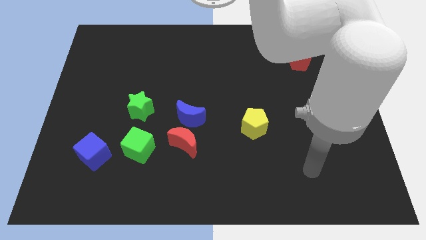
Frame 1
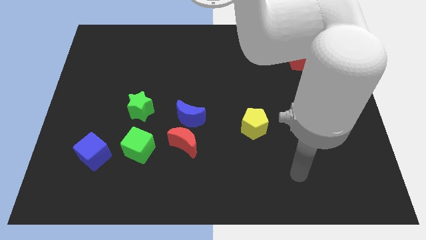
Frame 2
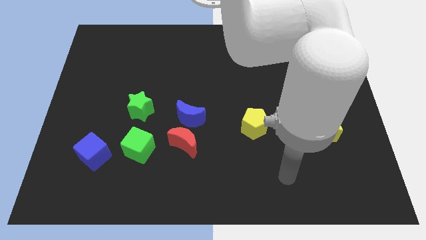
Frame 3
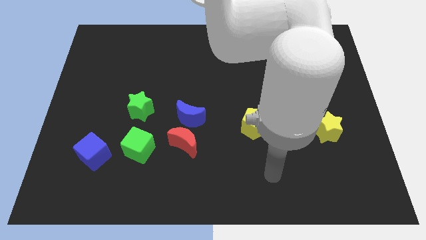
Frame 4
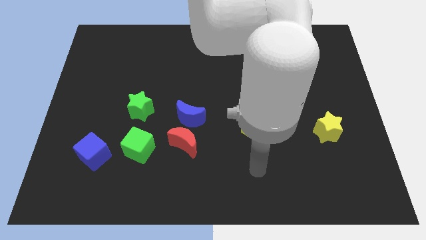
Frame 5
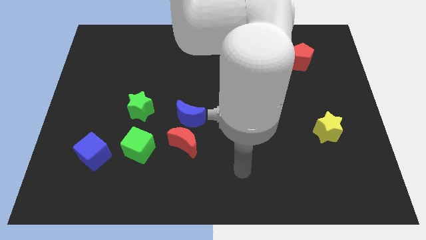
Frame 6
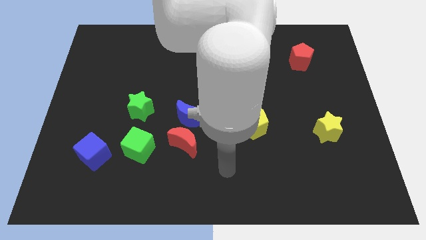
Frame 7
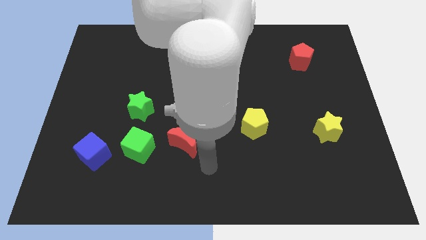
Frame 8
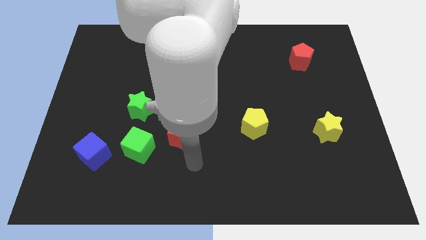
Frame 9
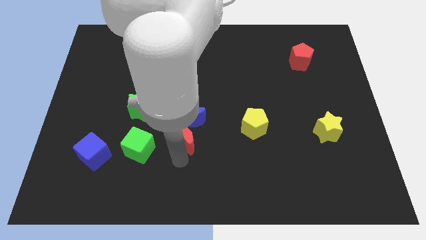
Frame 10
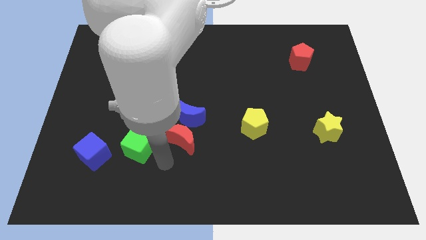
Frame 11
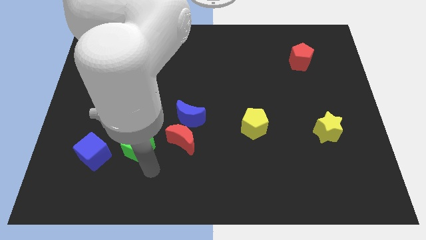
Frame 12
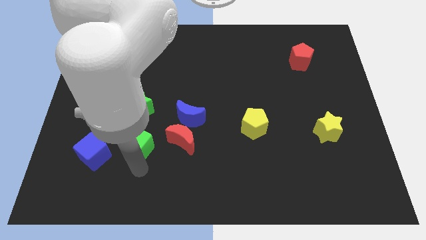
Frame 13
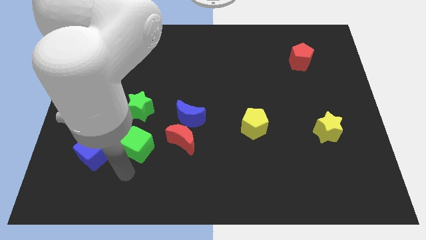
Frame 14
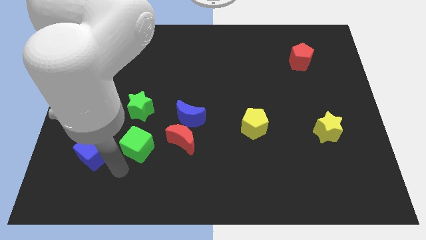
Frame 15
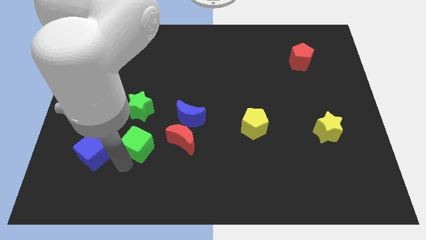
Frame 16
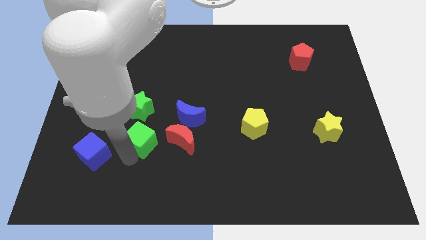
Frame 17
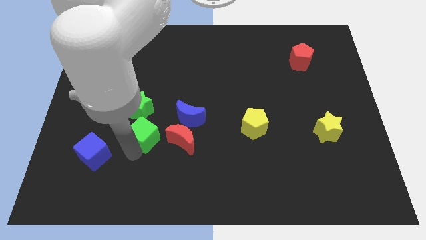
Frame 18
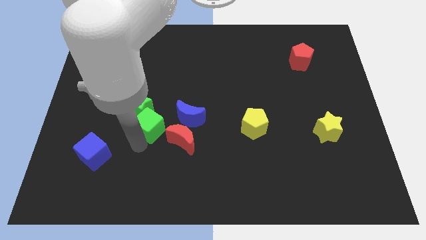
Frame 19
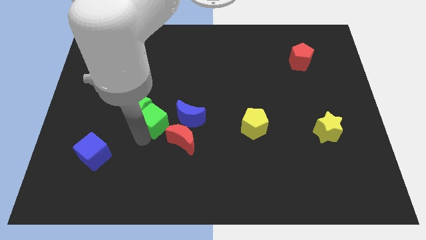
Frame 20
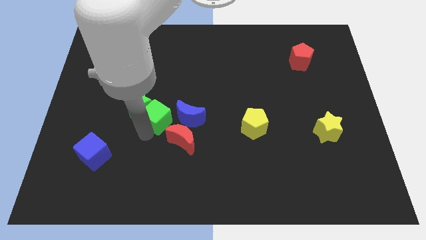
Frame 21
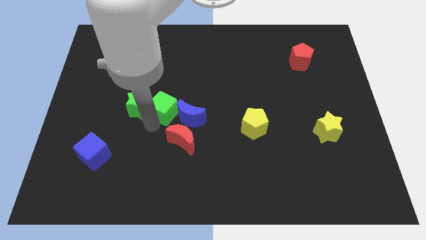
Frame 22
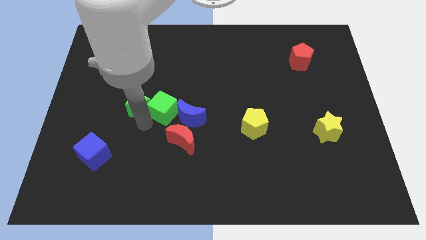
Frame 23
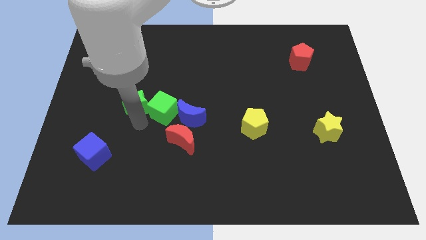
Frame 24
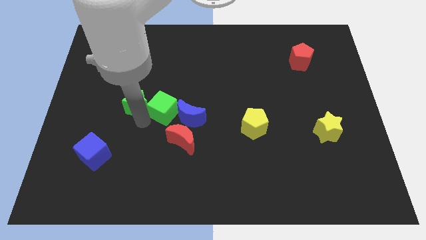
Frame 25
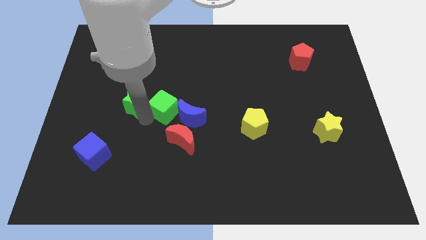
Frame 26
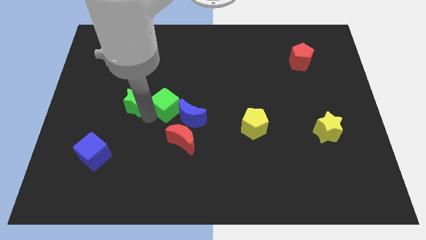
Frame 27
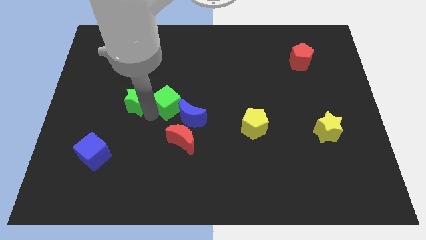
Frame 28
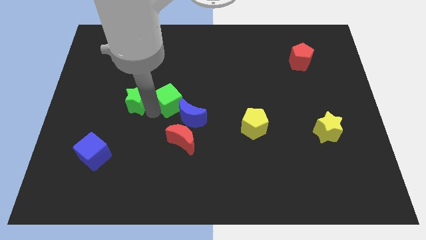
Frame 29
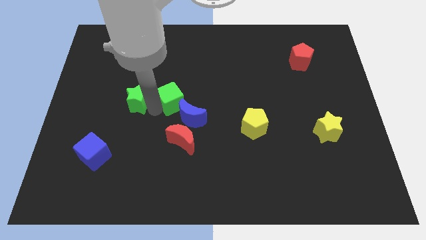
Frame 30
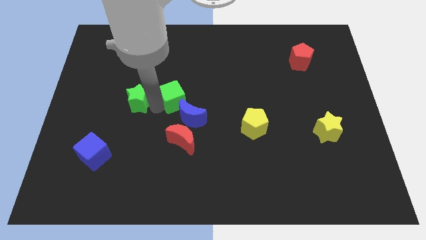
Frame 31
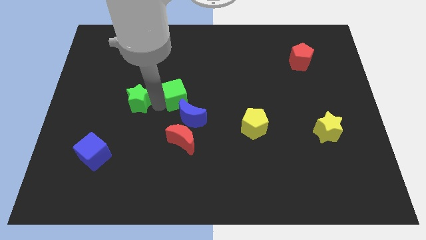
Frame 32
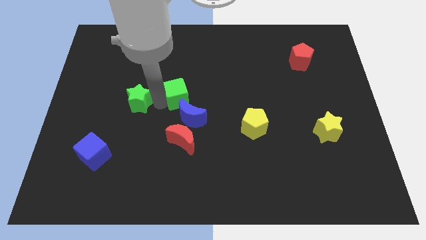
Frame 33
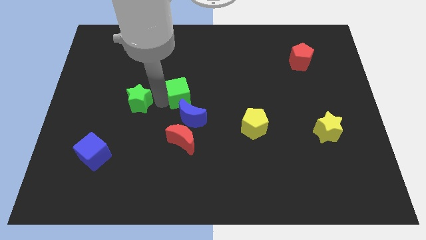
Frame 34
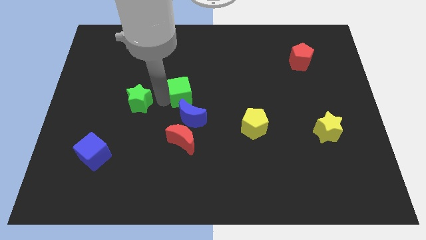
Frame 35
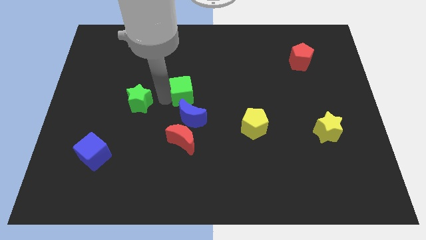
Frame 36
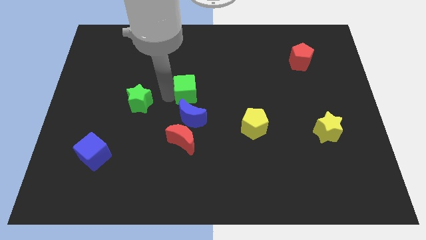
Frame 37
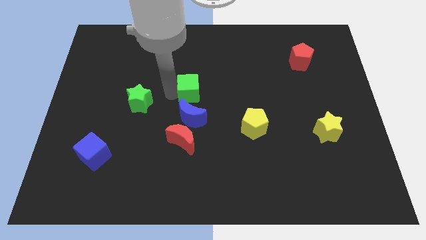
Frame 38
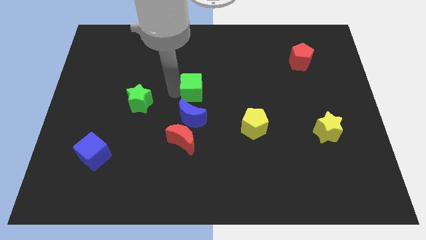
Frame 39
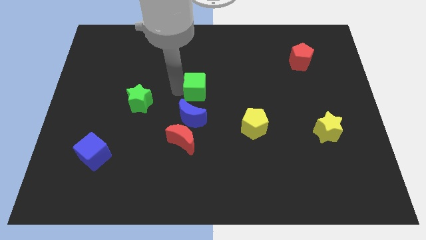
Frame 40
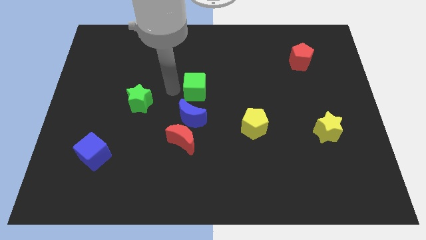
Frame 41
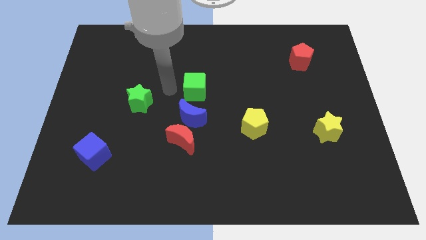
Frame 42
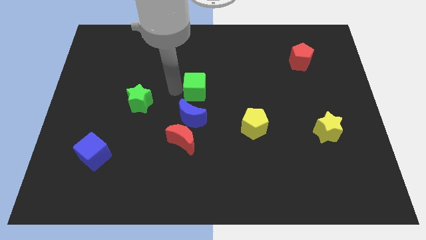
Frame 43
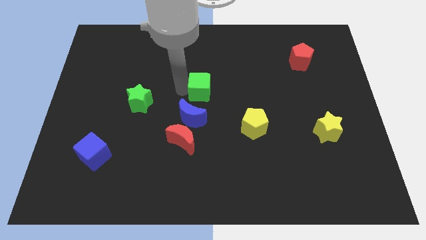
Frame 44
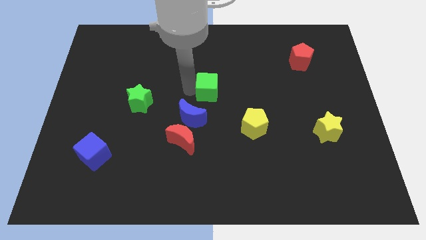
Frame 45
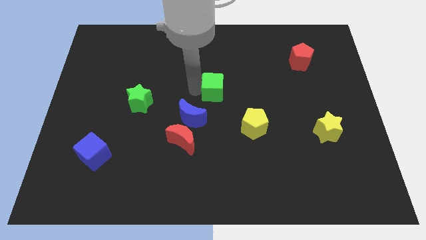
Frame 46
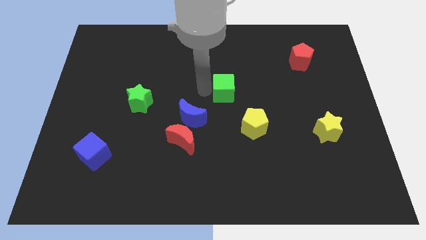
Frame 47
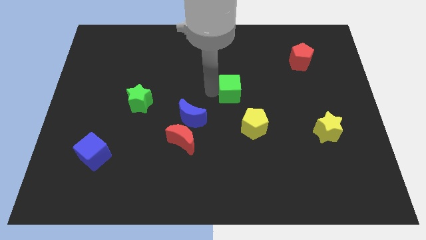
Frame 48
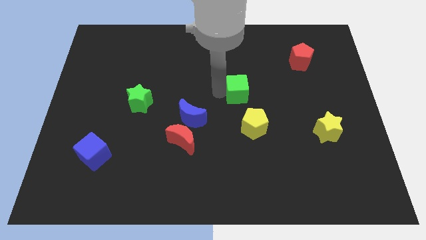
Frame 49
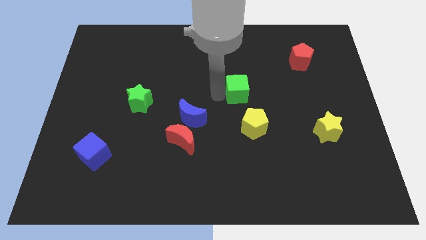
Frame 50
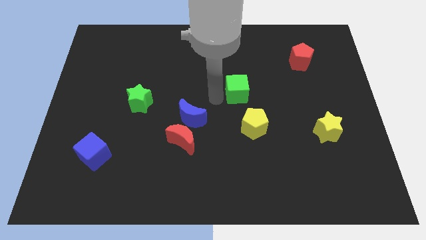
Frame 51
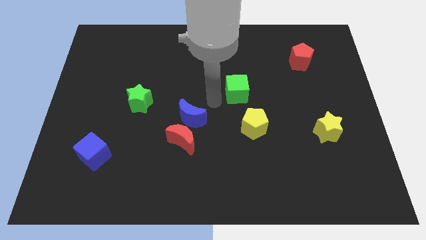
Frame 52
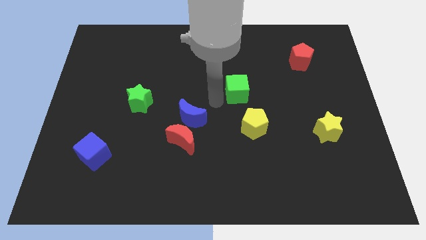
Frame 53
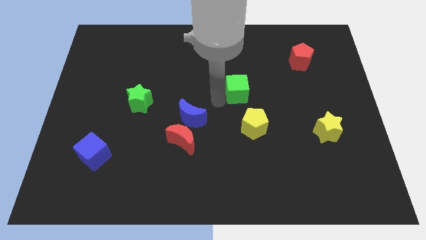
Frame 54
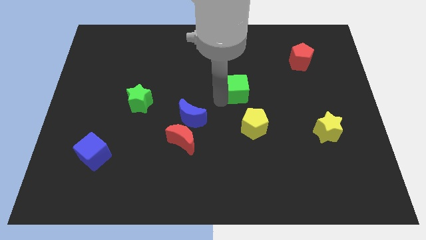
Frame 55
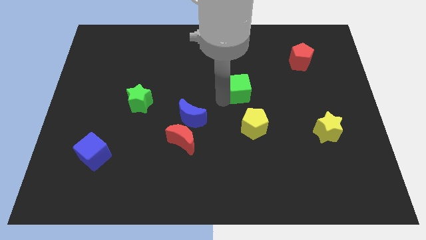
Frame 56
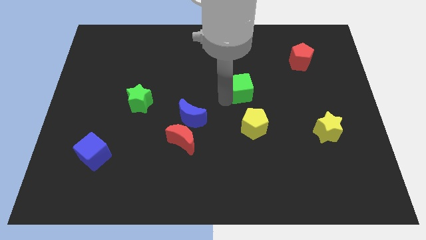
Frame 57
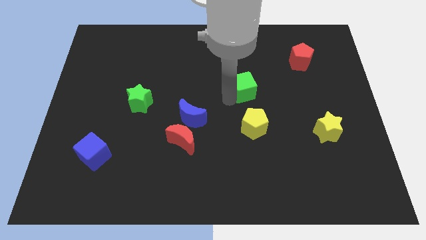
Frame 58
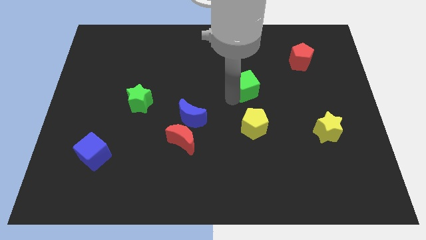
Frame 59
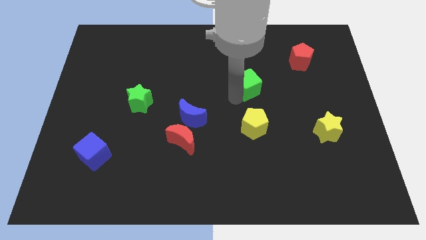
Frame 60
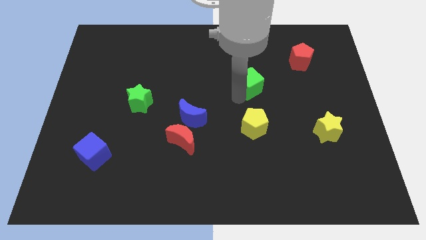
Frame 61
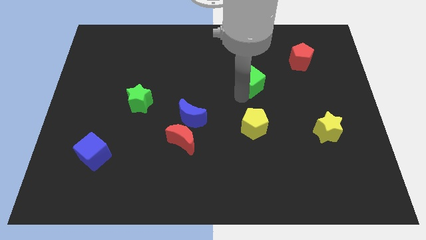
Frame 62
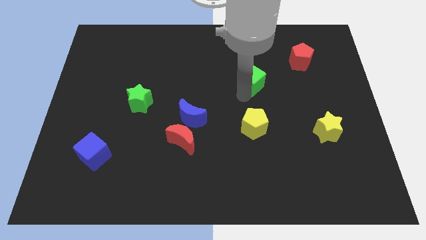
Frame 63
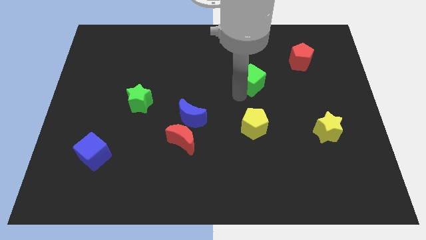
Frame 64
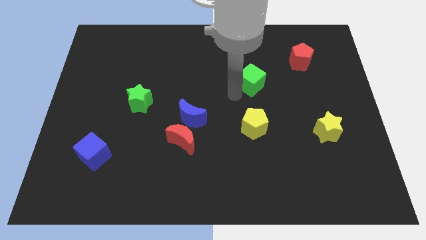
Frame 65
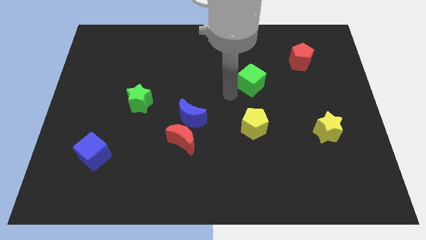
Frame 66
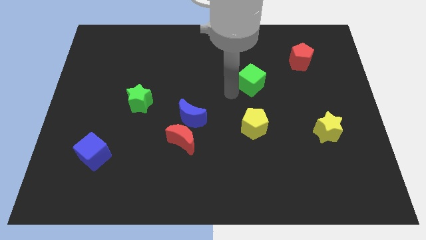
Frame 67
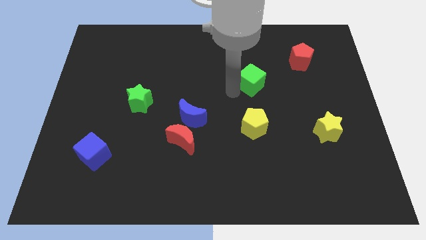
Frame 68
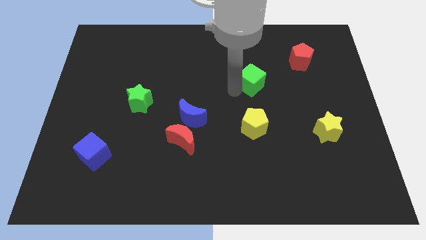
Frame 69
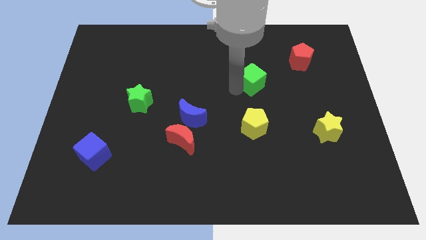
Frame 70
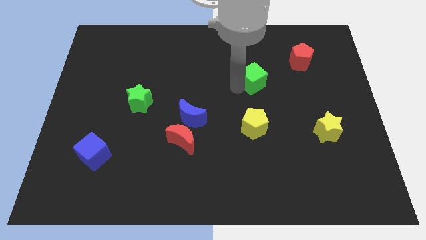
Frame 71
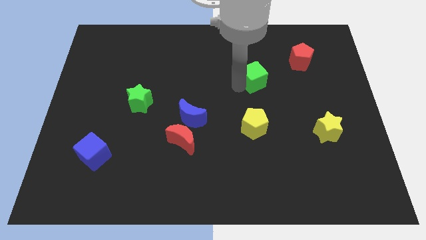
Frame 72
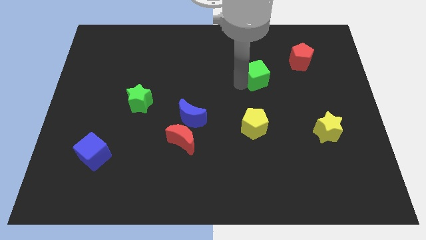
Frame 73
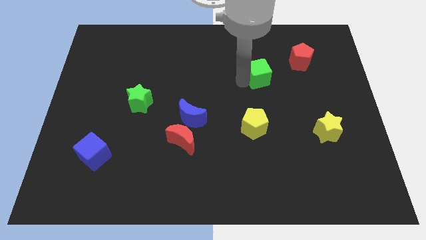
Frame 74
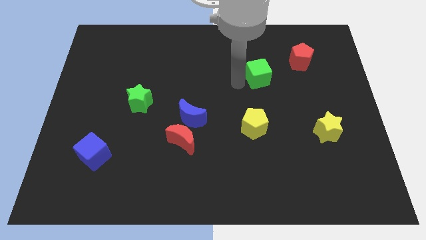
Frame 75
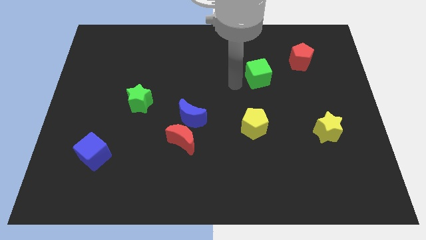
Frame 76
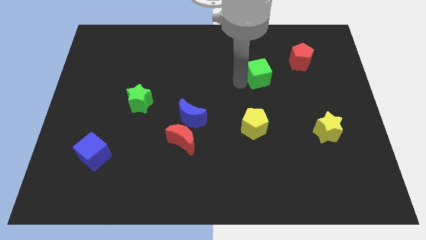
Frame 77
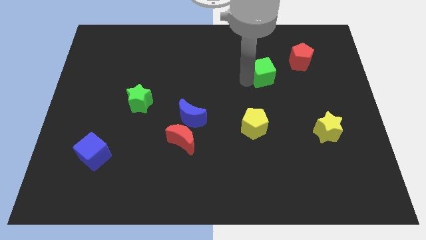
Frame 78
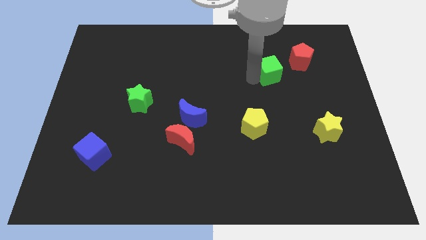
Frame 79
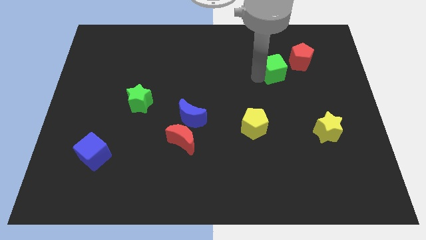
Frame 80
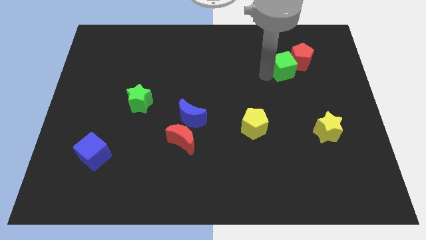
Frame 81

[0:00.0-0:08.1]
put the green cube close to the red pentagon
